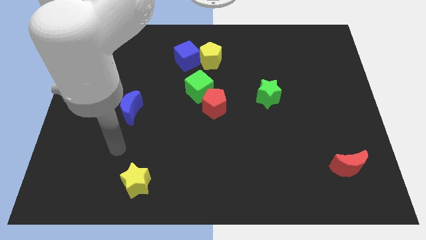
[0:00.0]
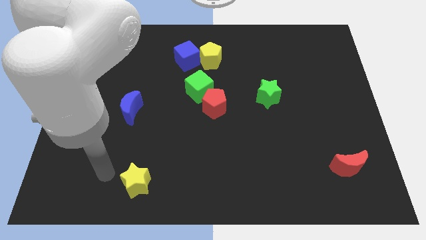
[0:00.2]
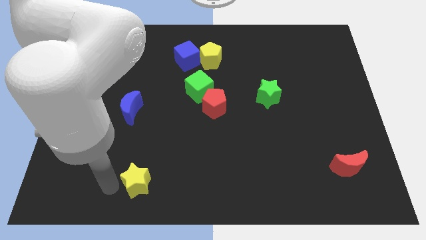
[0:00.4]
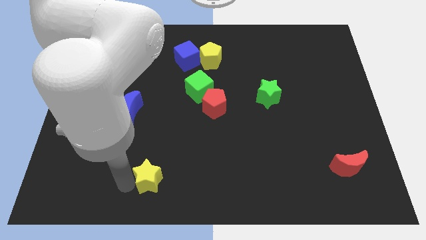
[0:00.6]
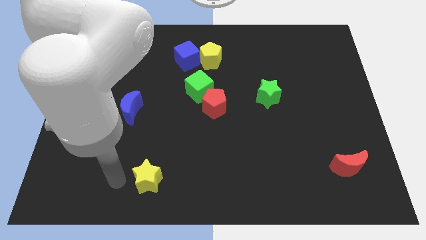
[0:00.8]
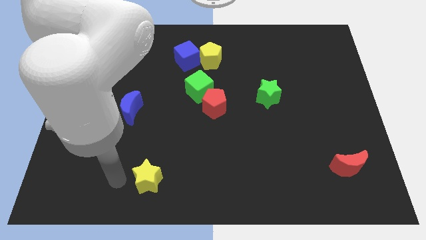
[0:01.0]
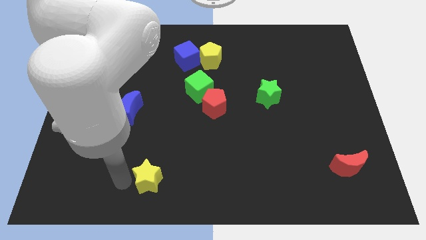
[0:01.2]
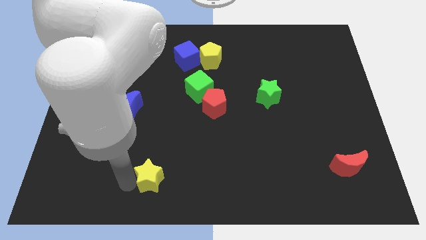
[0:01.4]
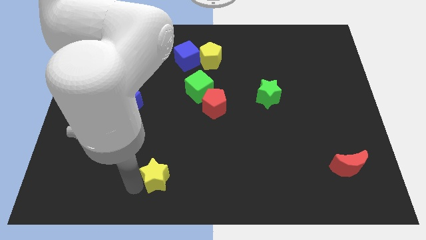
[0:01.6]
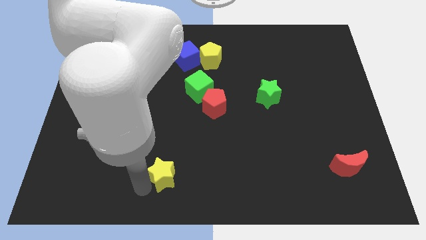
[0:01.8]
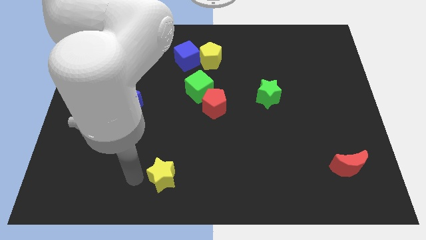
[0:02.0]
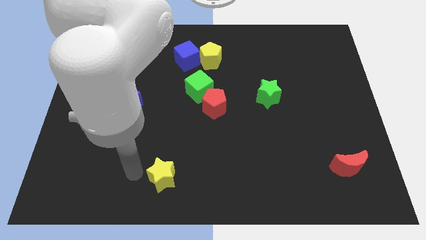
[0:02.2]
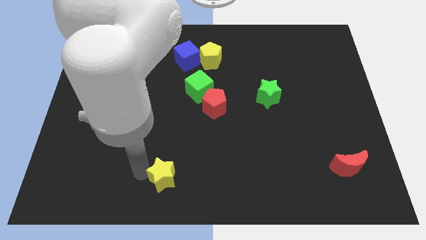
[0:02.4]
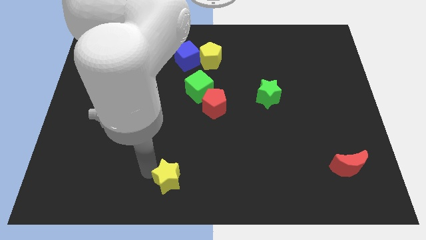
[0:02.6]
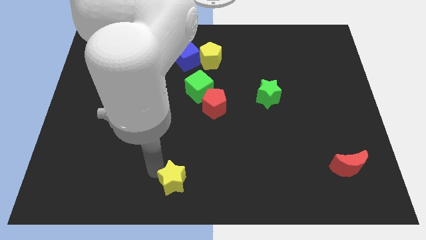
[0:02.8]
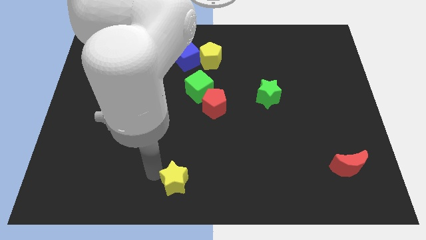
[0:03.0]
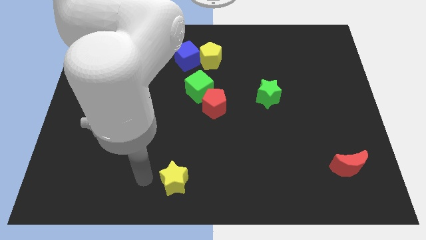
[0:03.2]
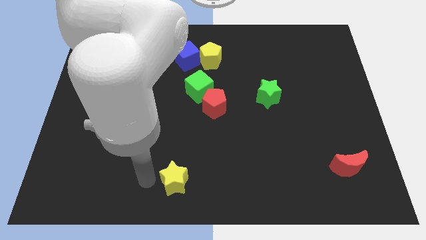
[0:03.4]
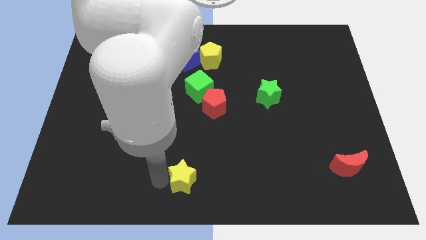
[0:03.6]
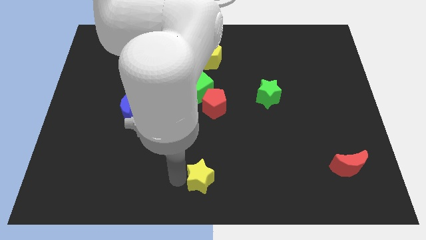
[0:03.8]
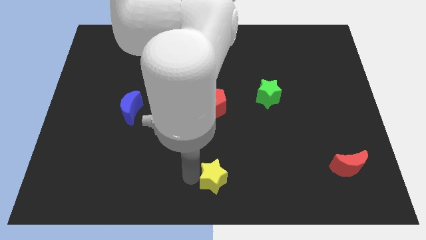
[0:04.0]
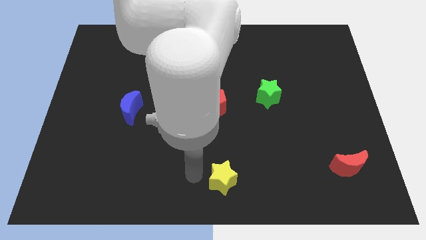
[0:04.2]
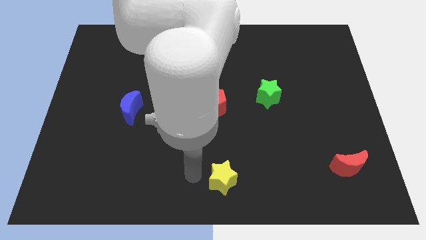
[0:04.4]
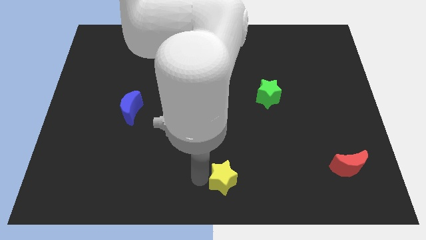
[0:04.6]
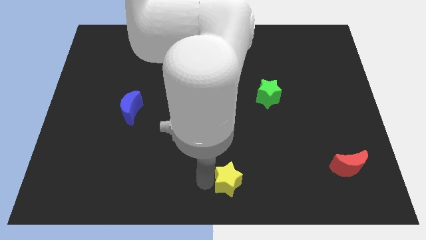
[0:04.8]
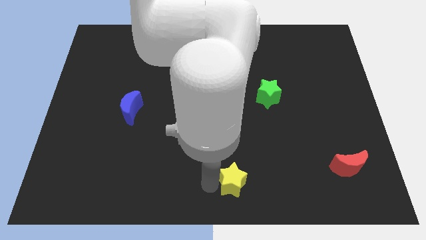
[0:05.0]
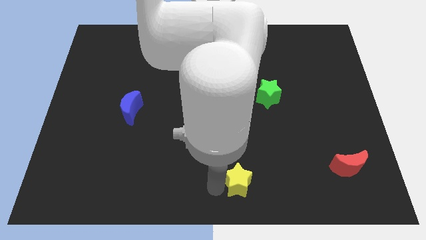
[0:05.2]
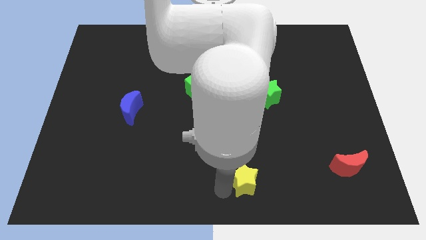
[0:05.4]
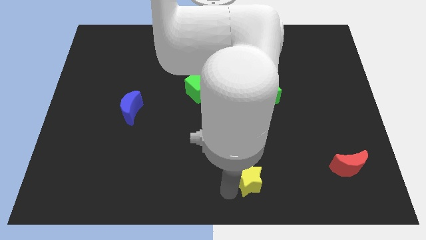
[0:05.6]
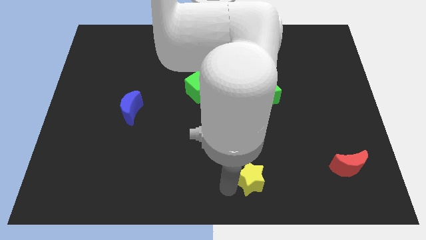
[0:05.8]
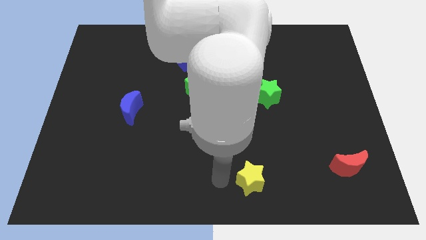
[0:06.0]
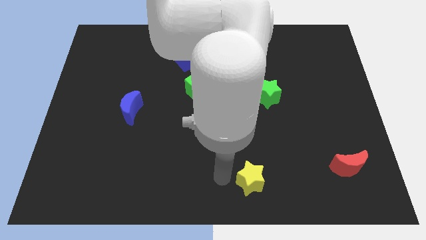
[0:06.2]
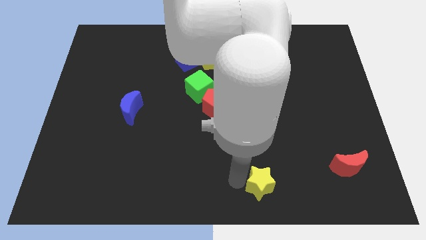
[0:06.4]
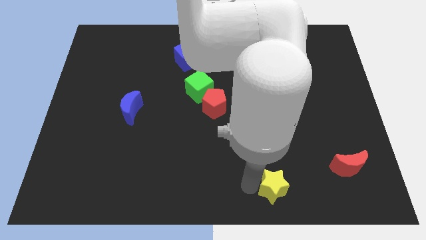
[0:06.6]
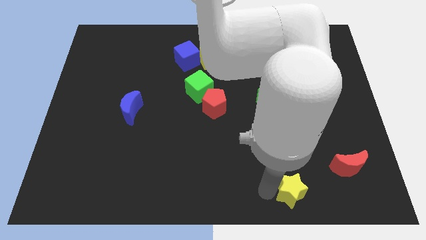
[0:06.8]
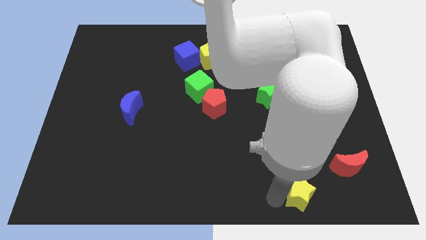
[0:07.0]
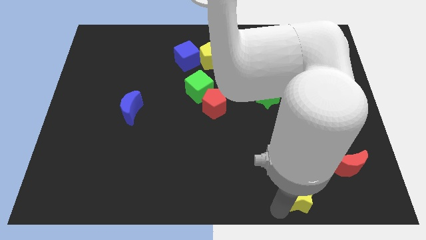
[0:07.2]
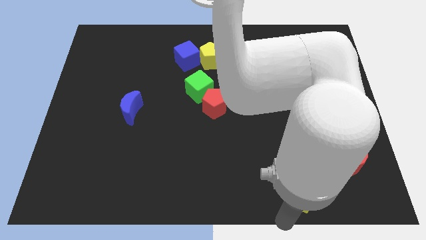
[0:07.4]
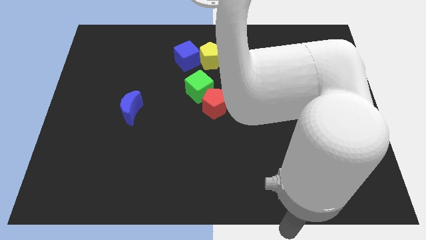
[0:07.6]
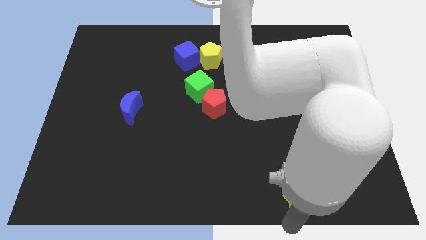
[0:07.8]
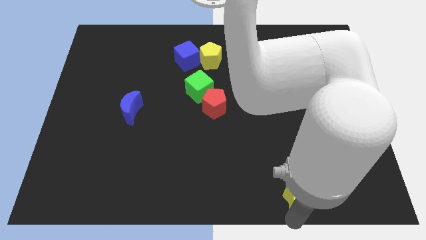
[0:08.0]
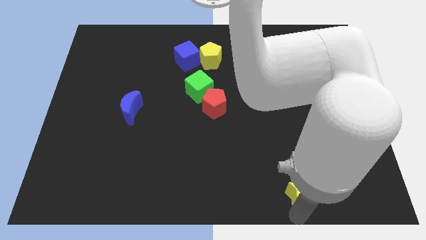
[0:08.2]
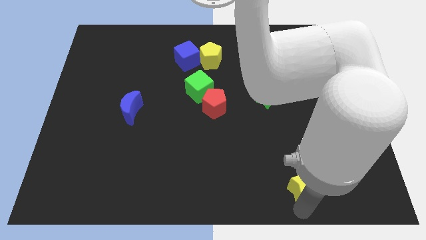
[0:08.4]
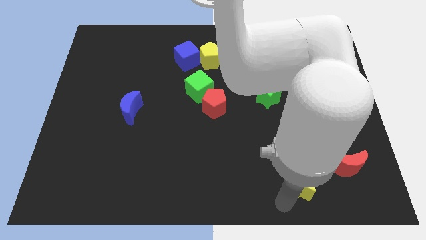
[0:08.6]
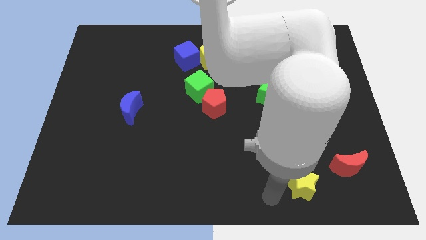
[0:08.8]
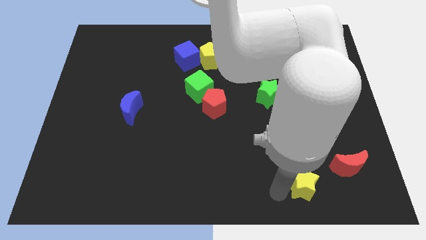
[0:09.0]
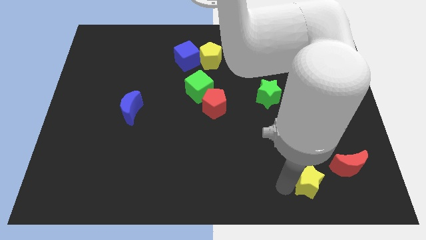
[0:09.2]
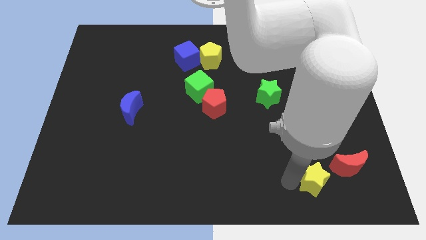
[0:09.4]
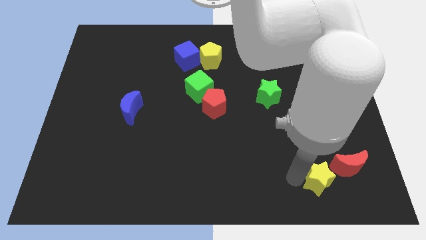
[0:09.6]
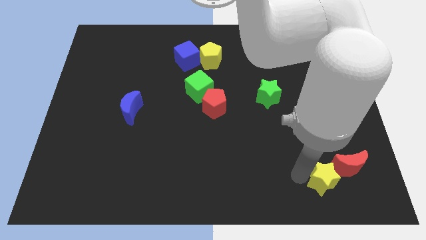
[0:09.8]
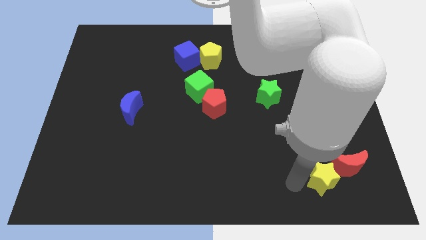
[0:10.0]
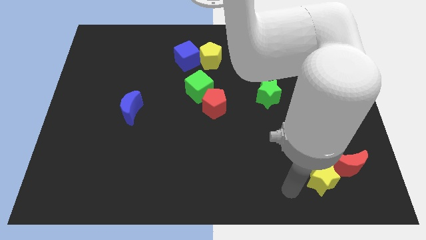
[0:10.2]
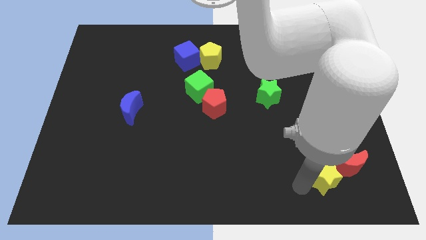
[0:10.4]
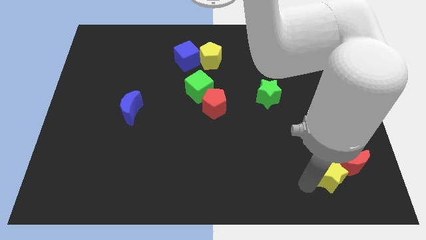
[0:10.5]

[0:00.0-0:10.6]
put the yellow star close to the red moon

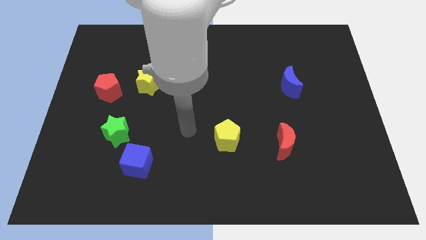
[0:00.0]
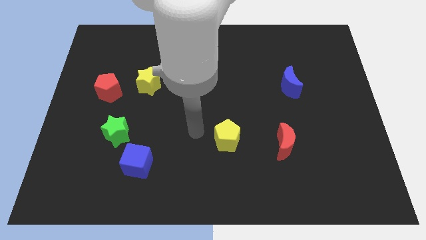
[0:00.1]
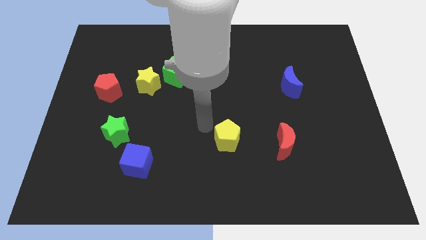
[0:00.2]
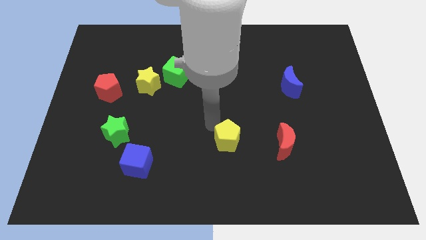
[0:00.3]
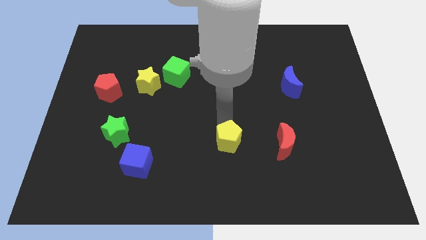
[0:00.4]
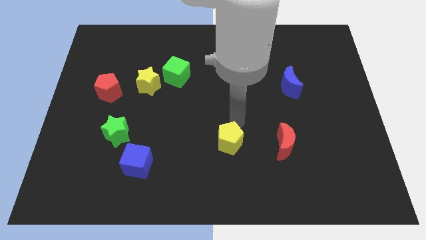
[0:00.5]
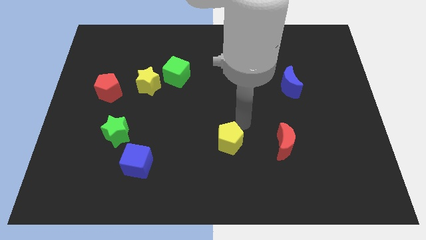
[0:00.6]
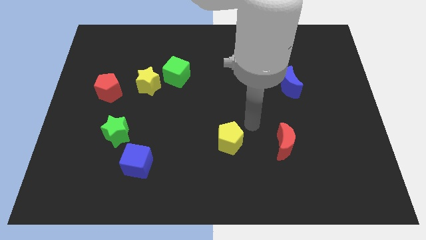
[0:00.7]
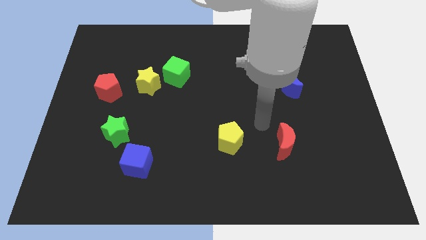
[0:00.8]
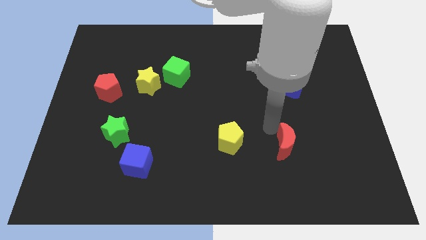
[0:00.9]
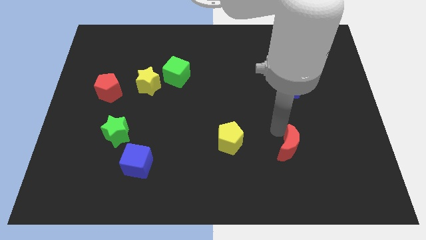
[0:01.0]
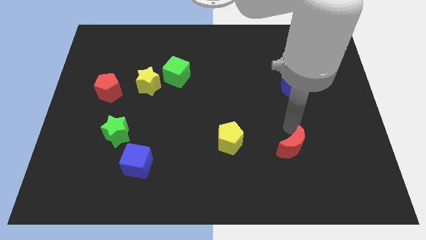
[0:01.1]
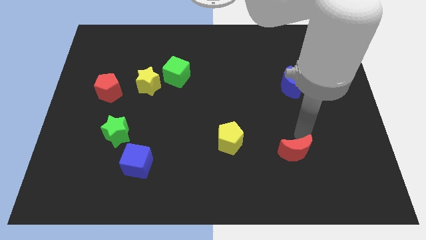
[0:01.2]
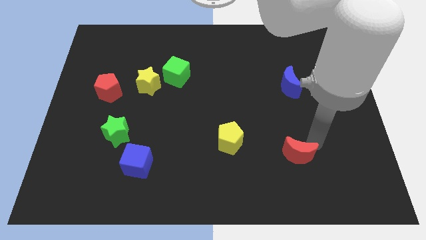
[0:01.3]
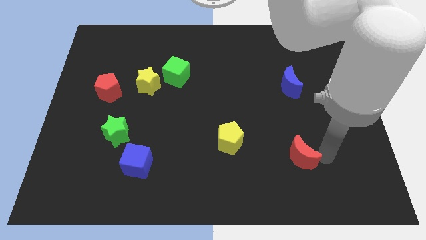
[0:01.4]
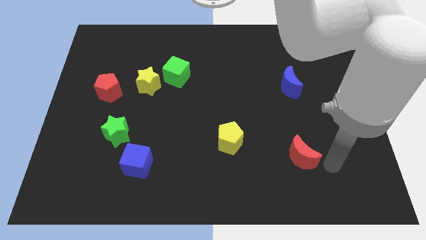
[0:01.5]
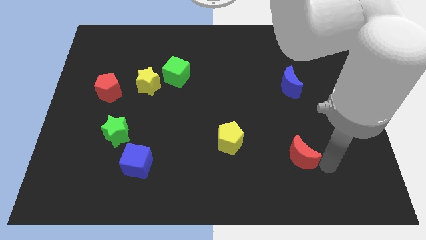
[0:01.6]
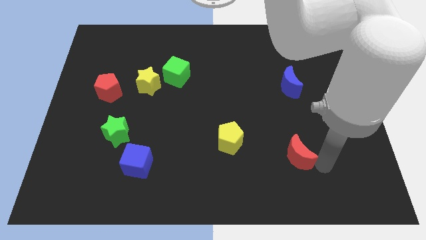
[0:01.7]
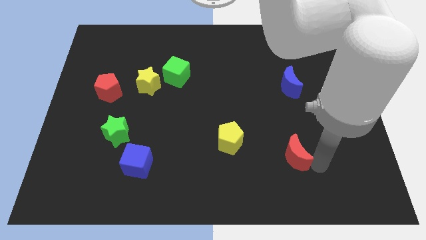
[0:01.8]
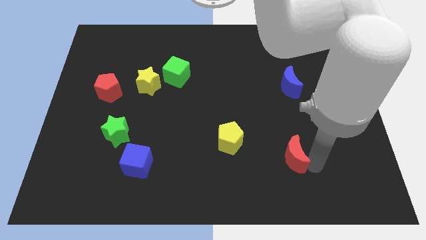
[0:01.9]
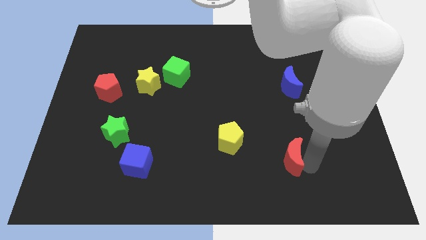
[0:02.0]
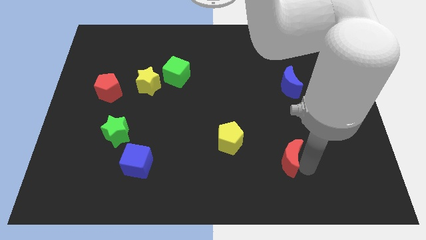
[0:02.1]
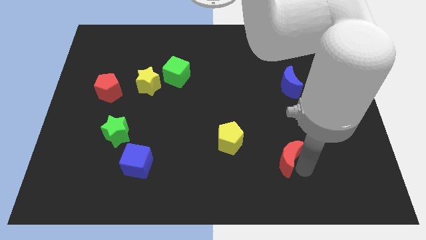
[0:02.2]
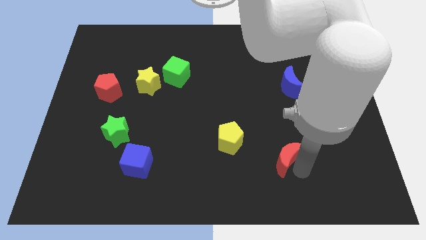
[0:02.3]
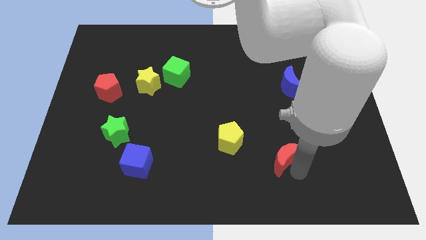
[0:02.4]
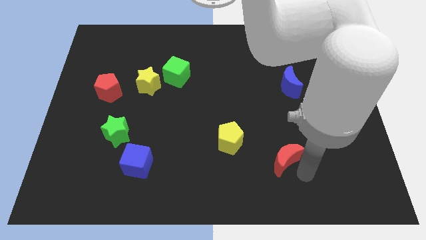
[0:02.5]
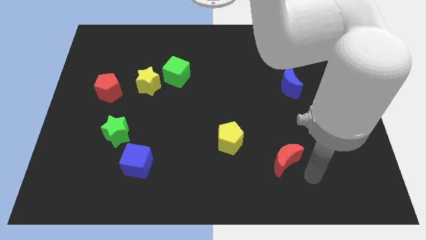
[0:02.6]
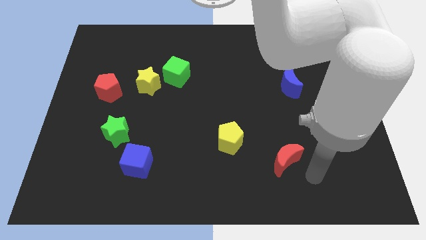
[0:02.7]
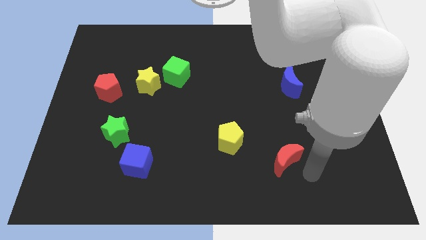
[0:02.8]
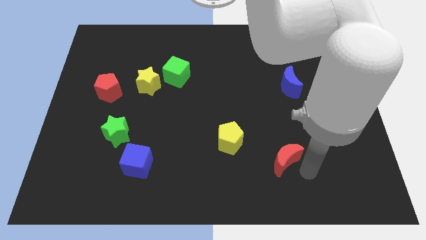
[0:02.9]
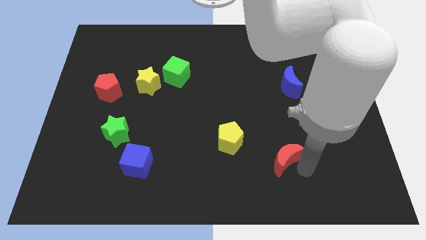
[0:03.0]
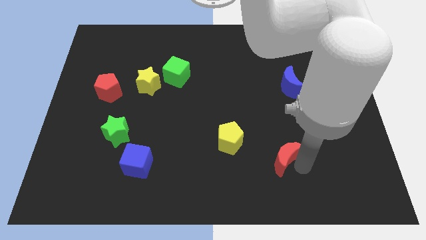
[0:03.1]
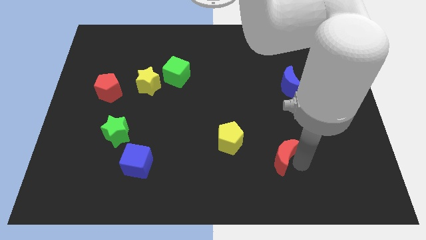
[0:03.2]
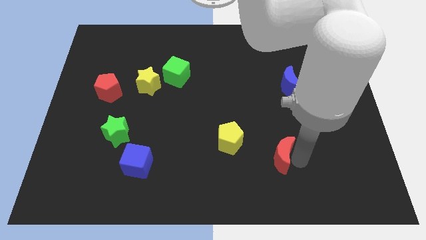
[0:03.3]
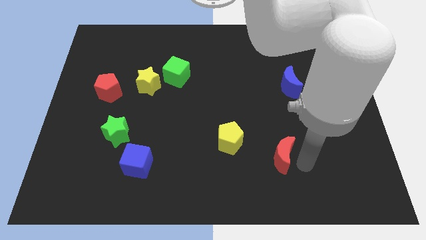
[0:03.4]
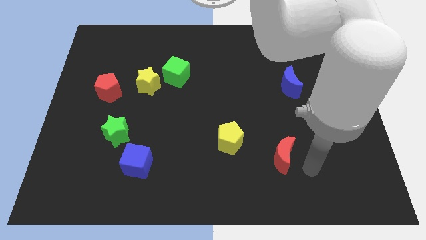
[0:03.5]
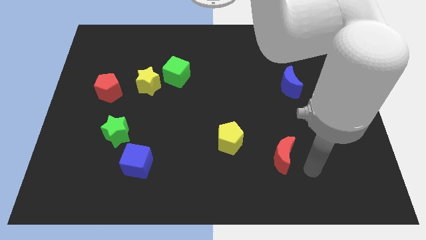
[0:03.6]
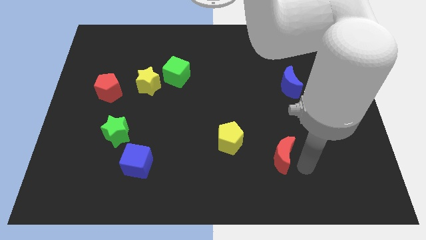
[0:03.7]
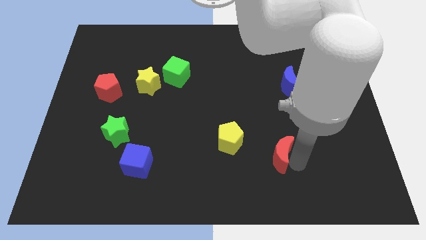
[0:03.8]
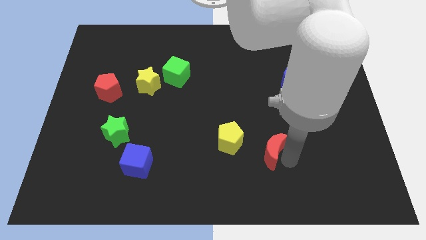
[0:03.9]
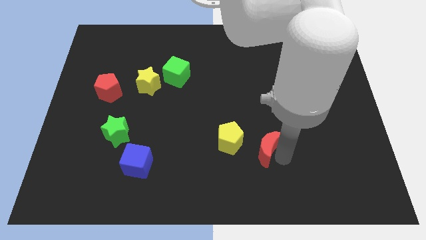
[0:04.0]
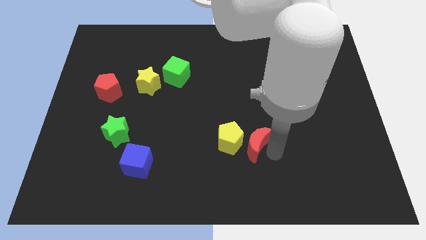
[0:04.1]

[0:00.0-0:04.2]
move the red moon towards the yellow pentagon
